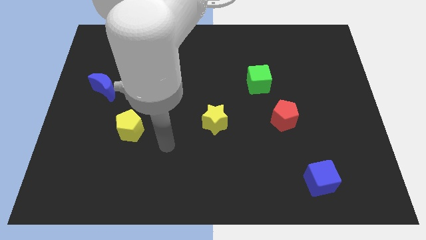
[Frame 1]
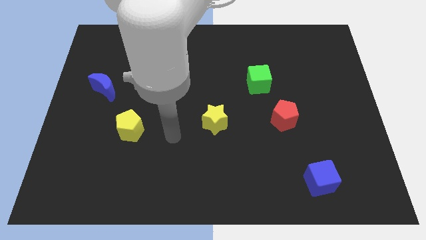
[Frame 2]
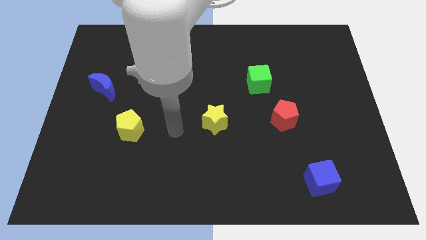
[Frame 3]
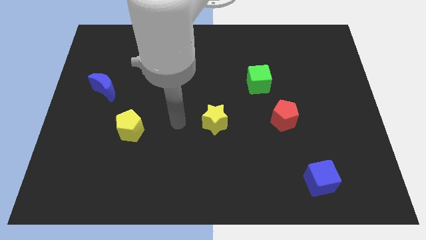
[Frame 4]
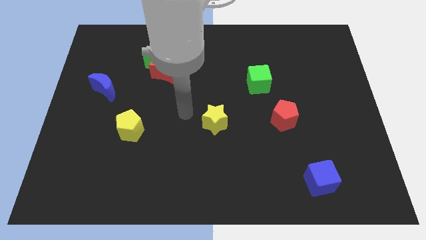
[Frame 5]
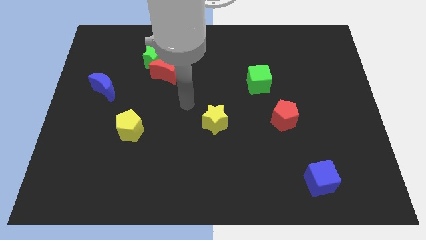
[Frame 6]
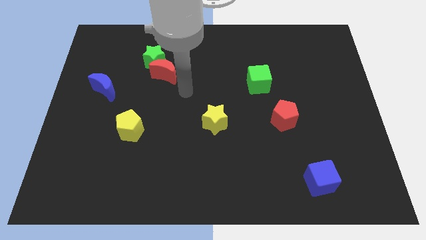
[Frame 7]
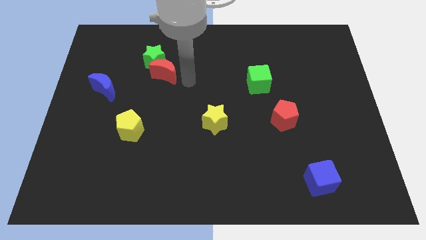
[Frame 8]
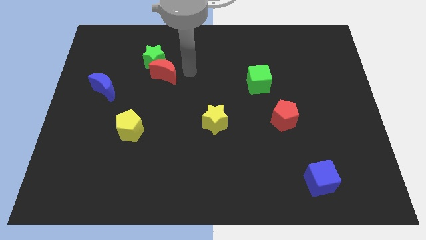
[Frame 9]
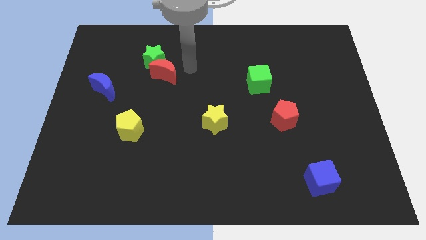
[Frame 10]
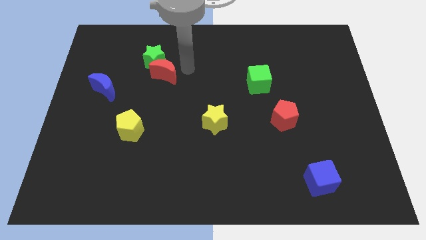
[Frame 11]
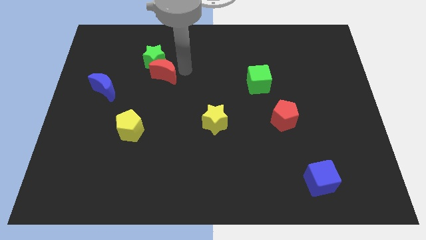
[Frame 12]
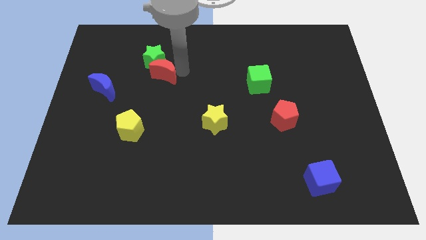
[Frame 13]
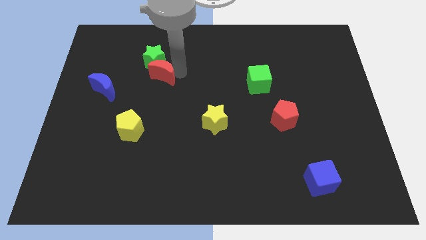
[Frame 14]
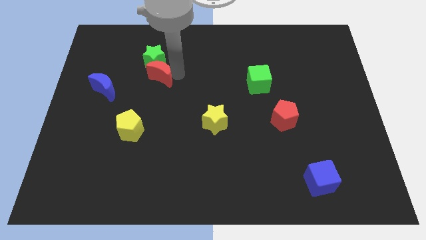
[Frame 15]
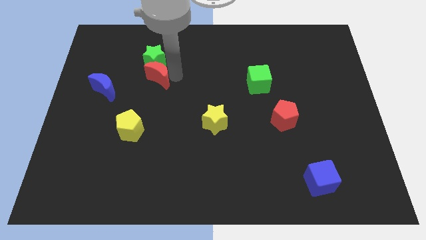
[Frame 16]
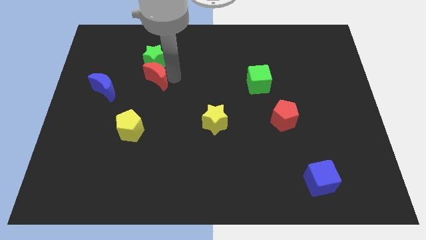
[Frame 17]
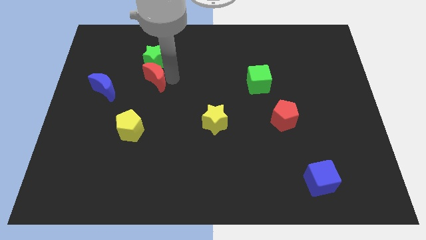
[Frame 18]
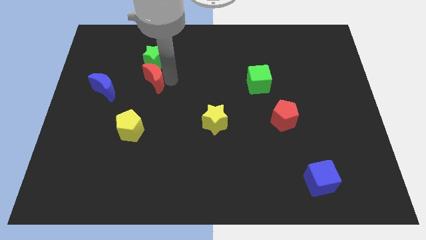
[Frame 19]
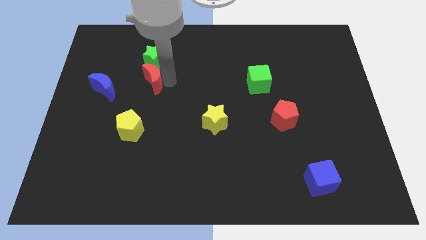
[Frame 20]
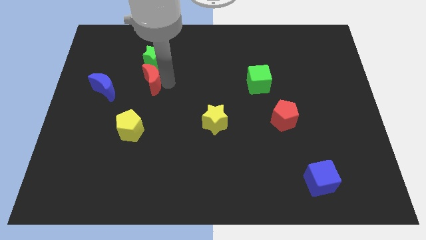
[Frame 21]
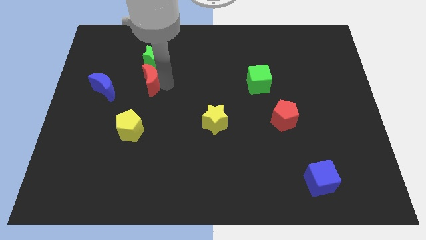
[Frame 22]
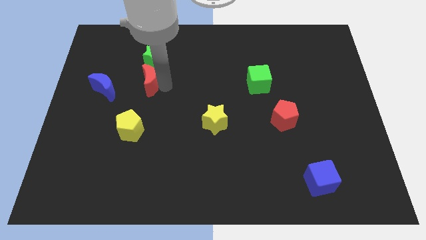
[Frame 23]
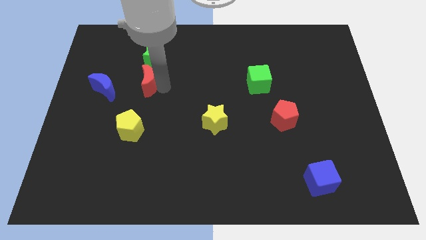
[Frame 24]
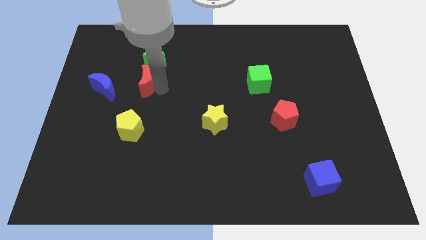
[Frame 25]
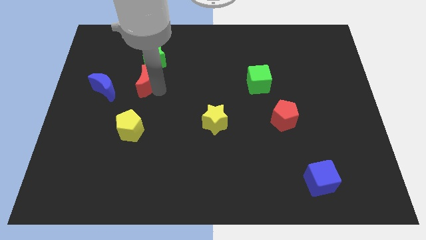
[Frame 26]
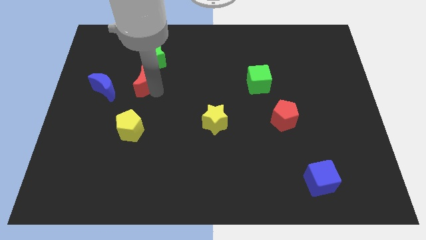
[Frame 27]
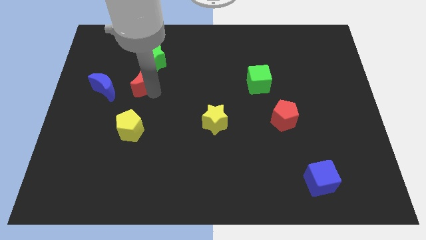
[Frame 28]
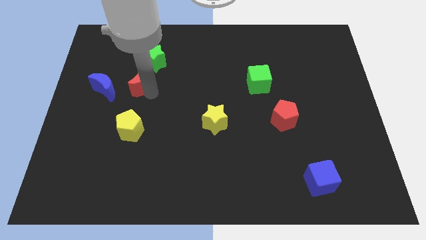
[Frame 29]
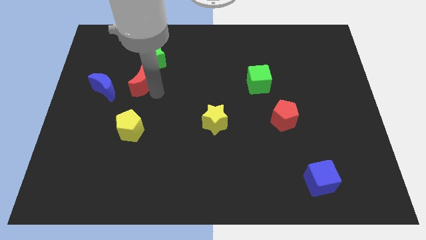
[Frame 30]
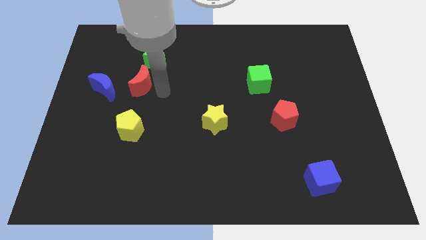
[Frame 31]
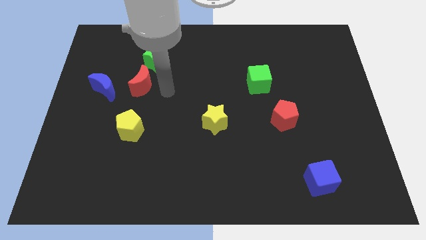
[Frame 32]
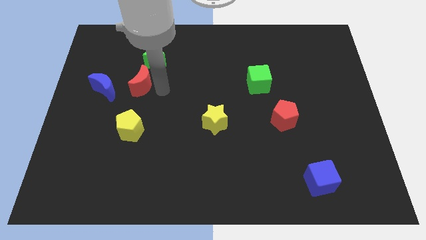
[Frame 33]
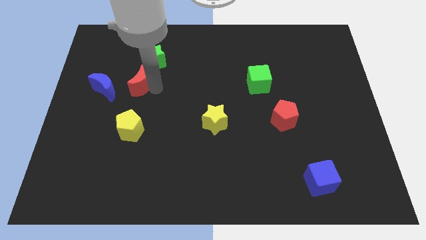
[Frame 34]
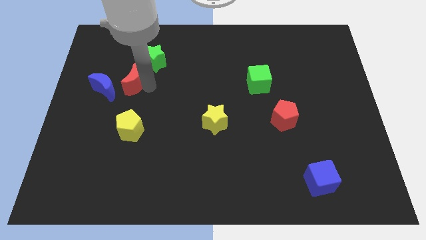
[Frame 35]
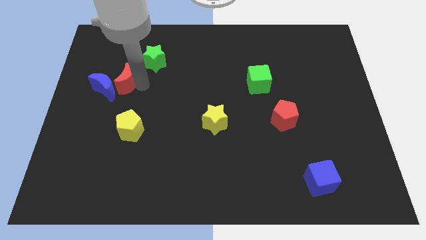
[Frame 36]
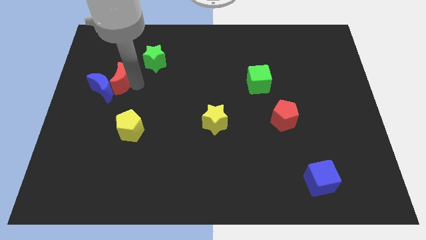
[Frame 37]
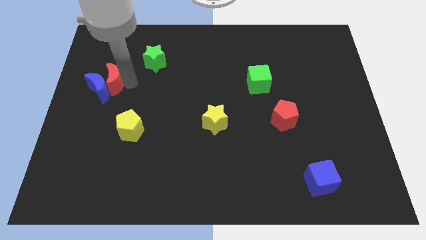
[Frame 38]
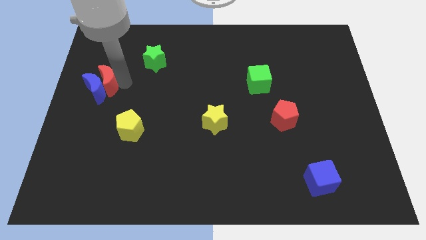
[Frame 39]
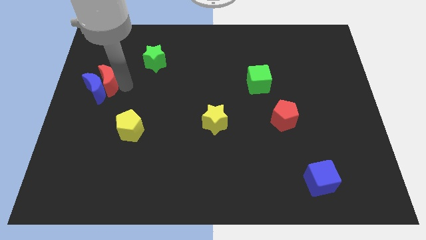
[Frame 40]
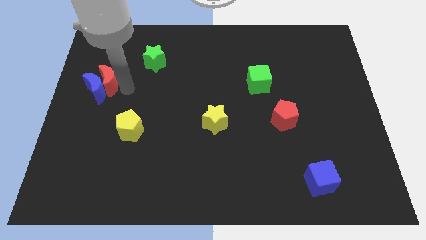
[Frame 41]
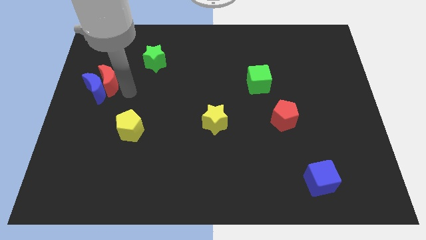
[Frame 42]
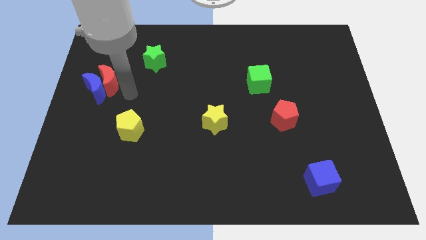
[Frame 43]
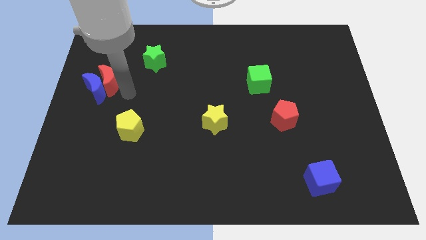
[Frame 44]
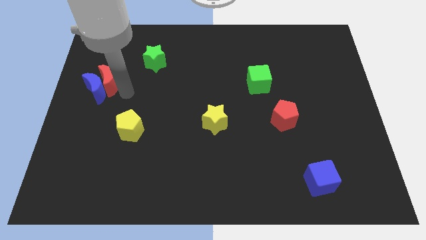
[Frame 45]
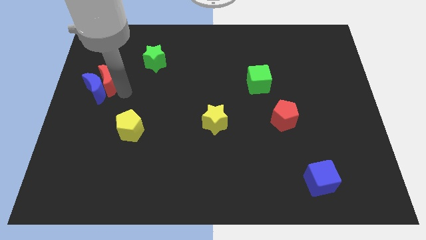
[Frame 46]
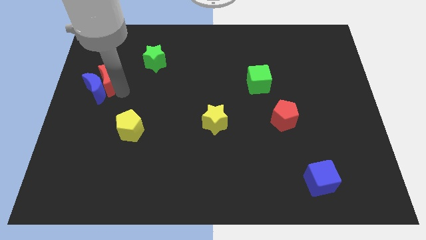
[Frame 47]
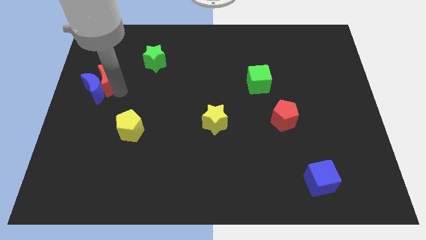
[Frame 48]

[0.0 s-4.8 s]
push the red moon to the left side

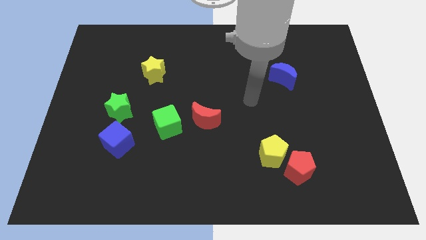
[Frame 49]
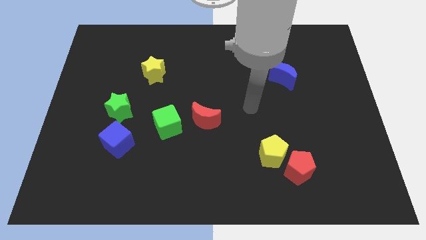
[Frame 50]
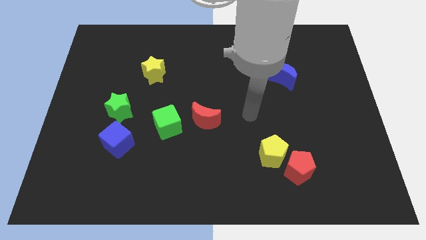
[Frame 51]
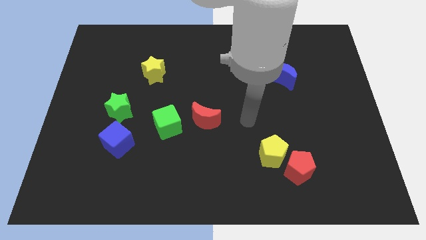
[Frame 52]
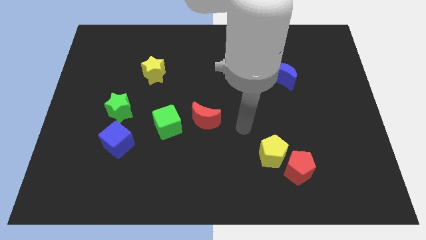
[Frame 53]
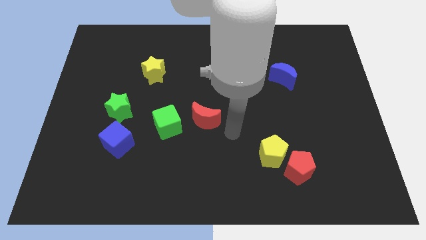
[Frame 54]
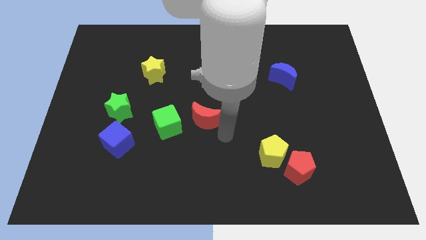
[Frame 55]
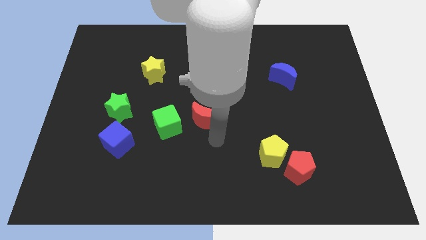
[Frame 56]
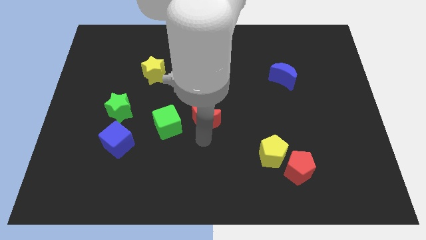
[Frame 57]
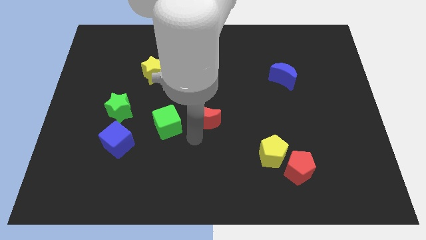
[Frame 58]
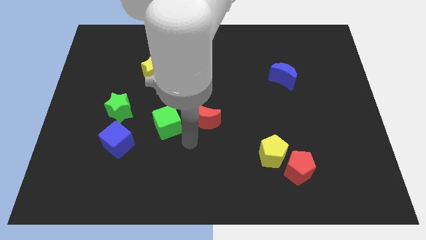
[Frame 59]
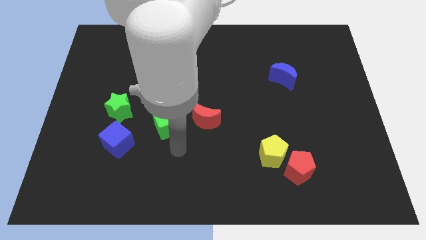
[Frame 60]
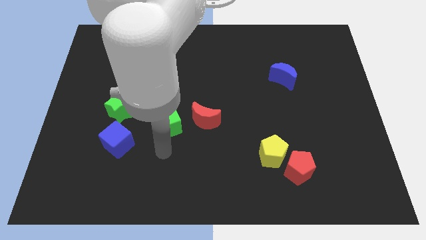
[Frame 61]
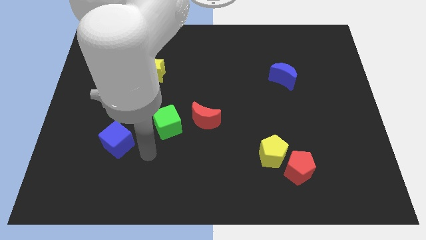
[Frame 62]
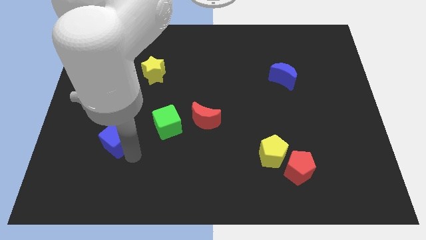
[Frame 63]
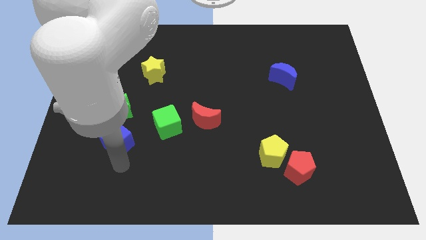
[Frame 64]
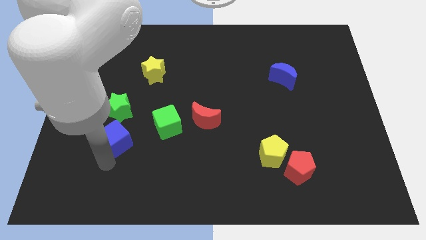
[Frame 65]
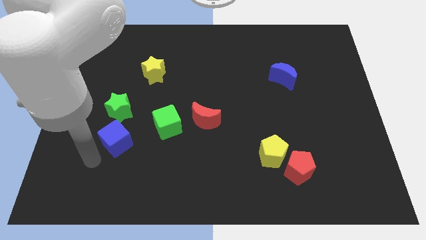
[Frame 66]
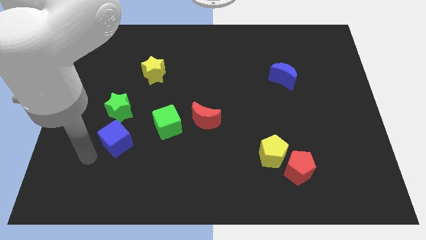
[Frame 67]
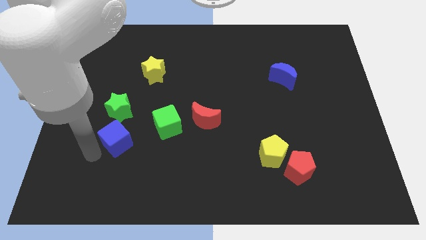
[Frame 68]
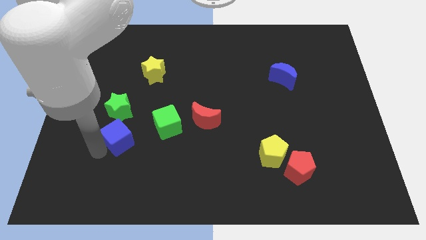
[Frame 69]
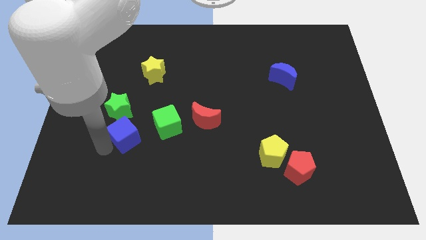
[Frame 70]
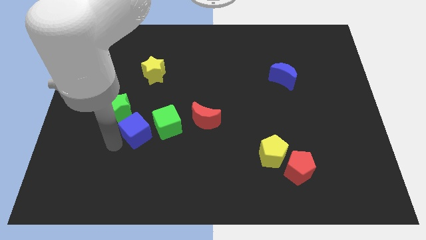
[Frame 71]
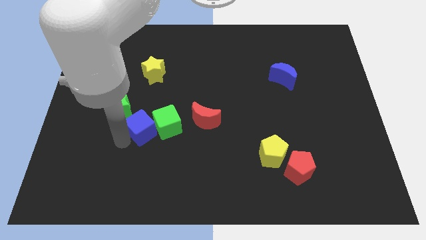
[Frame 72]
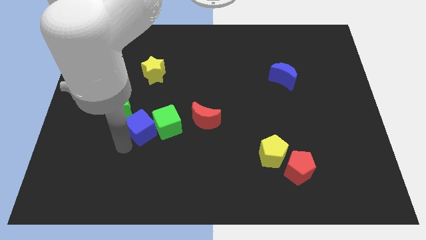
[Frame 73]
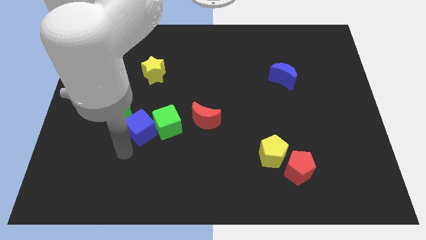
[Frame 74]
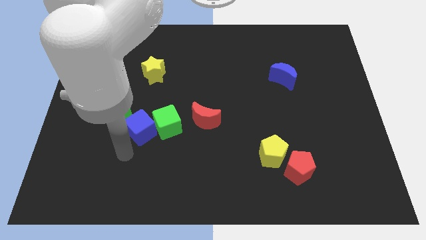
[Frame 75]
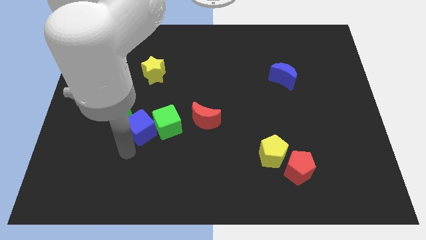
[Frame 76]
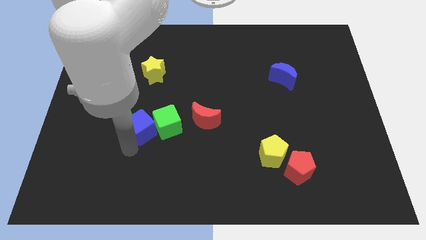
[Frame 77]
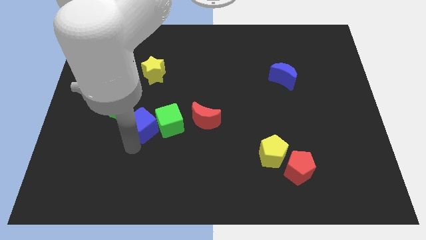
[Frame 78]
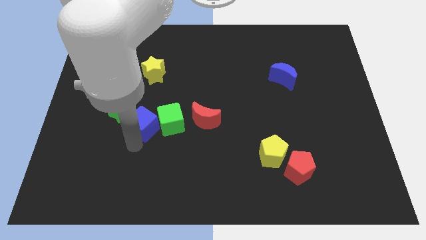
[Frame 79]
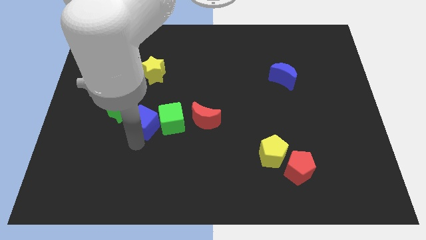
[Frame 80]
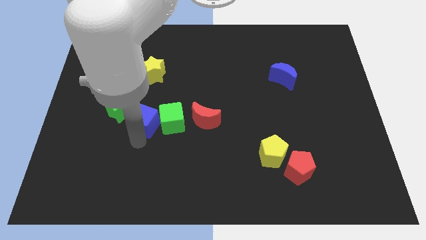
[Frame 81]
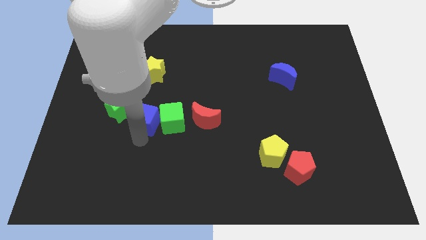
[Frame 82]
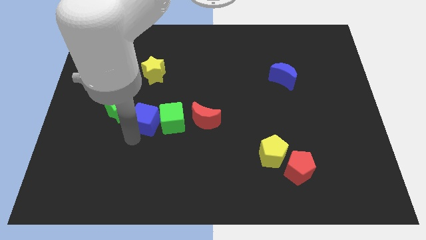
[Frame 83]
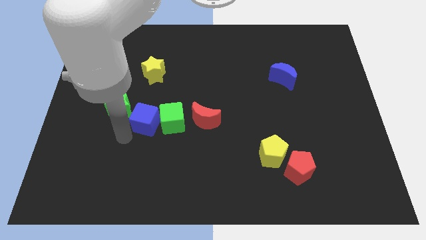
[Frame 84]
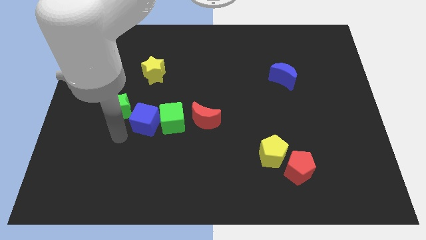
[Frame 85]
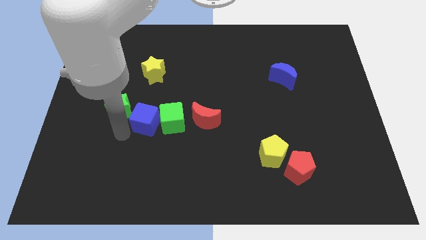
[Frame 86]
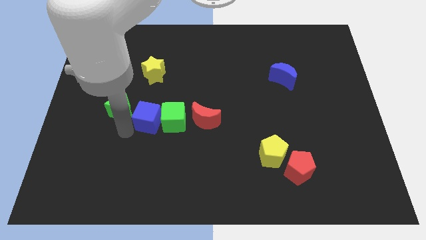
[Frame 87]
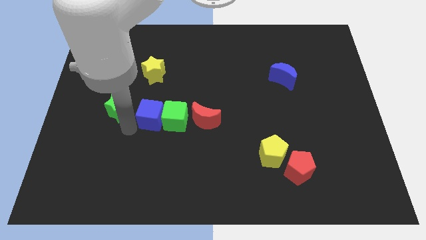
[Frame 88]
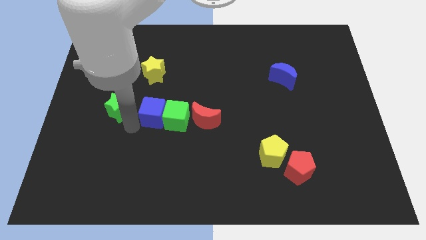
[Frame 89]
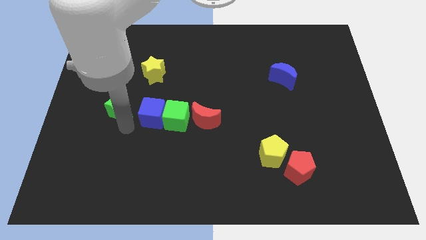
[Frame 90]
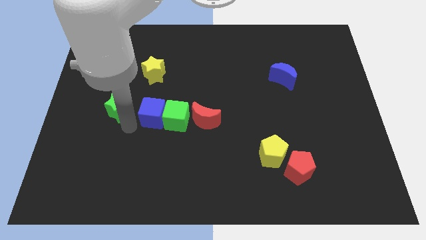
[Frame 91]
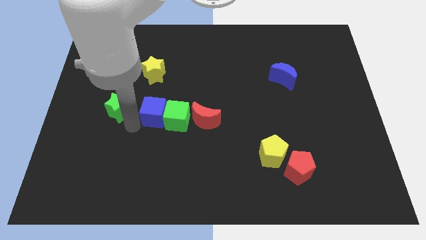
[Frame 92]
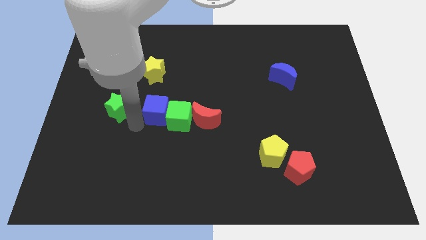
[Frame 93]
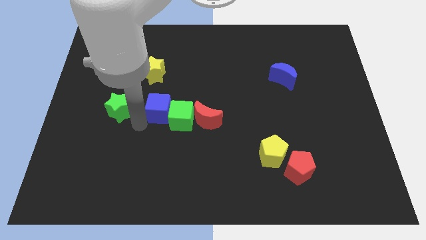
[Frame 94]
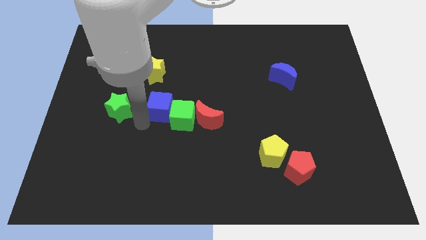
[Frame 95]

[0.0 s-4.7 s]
push the blue cube to the middle of the board
